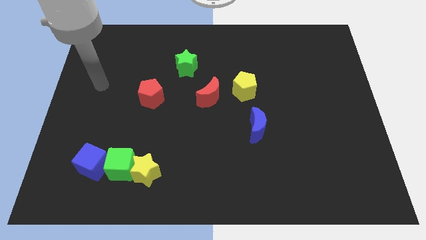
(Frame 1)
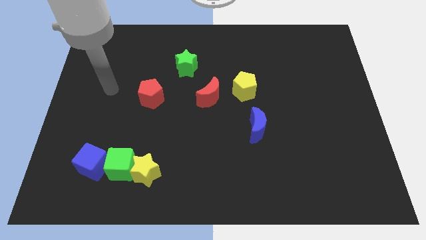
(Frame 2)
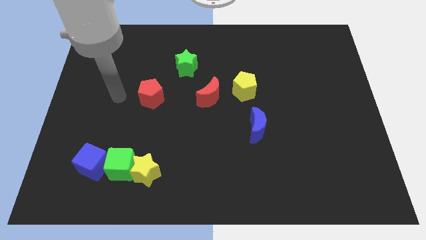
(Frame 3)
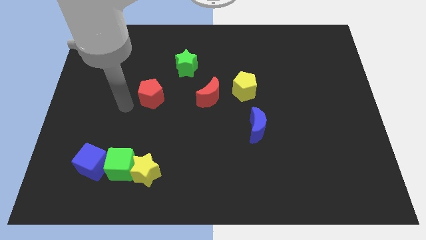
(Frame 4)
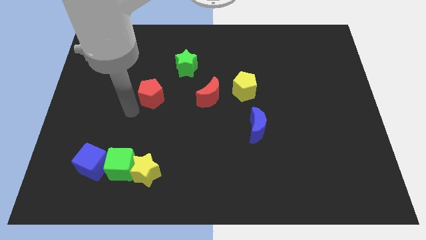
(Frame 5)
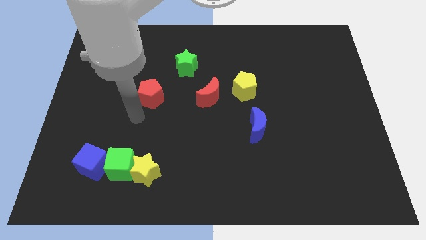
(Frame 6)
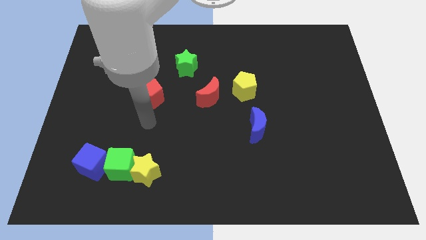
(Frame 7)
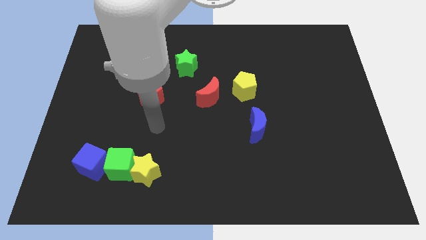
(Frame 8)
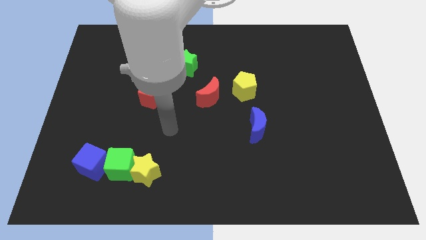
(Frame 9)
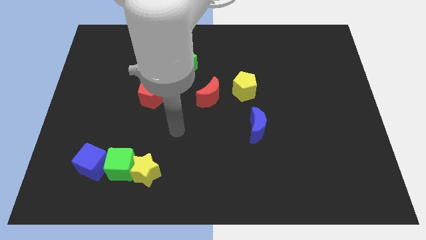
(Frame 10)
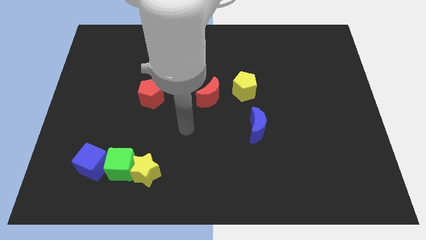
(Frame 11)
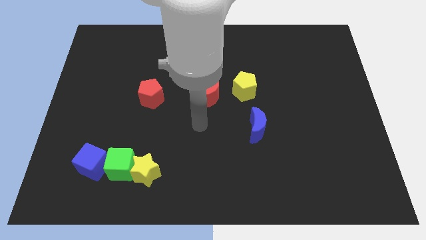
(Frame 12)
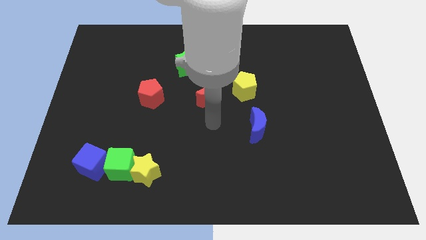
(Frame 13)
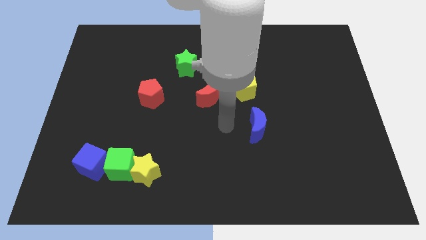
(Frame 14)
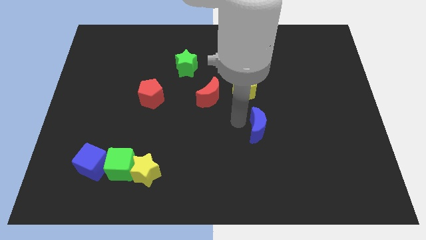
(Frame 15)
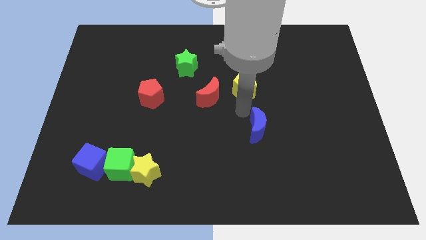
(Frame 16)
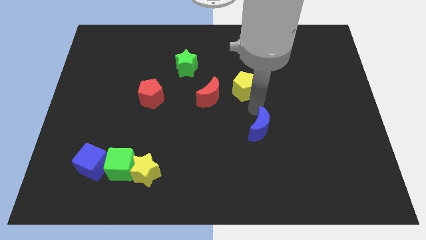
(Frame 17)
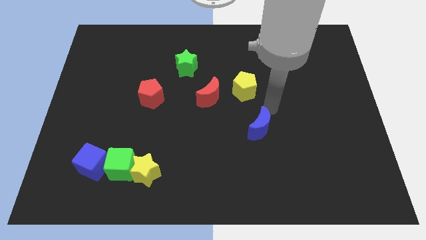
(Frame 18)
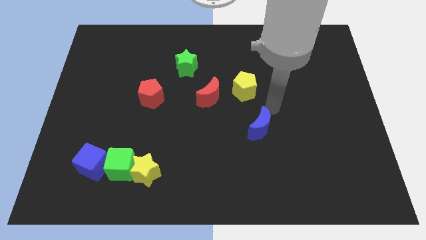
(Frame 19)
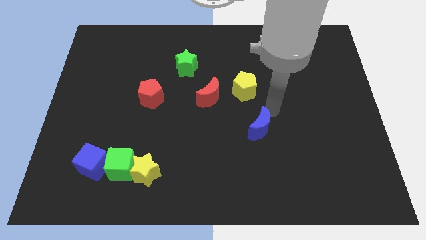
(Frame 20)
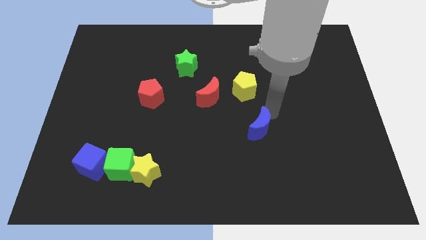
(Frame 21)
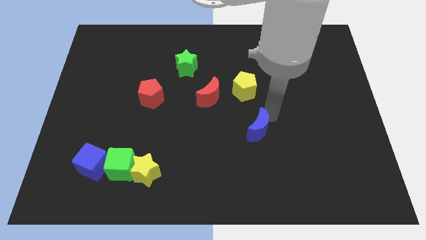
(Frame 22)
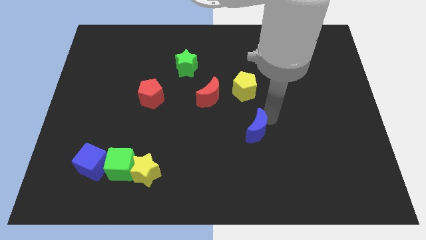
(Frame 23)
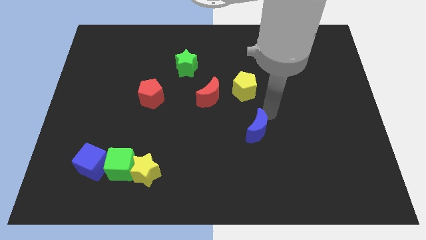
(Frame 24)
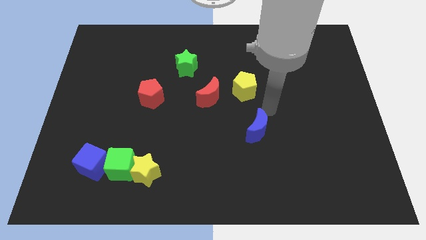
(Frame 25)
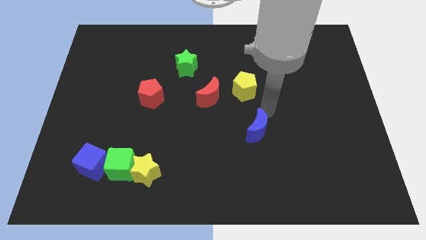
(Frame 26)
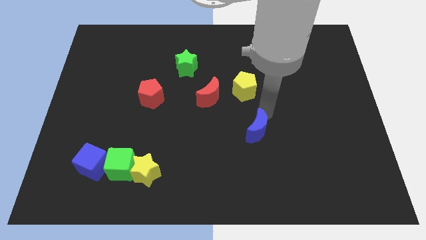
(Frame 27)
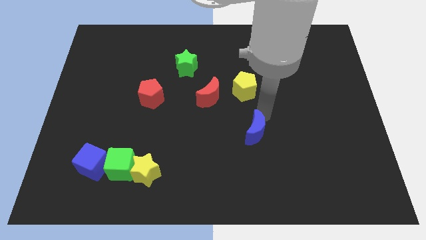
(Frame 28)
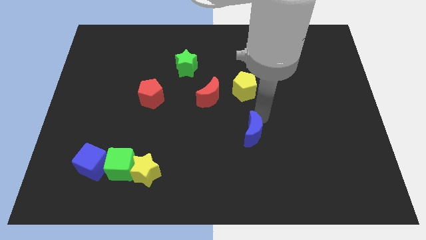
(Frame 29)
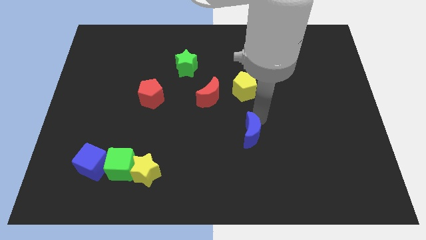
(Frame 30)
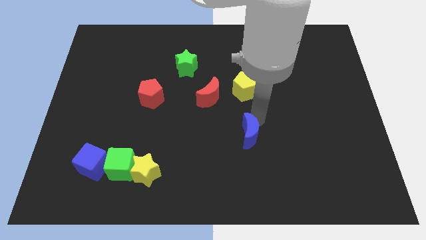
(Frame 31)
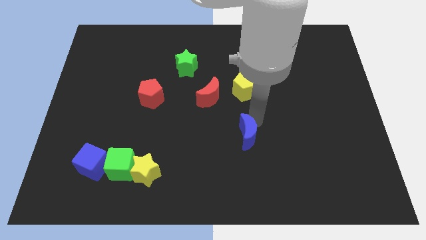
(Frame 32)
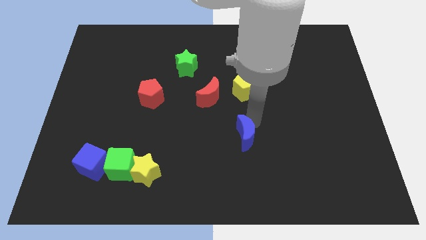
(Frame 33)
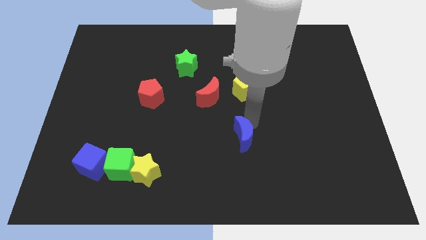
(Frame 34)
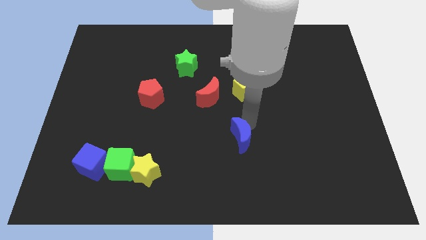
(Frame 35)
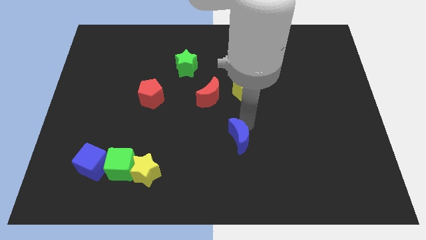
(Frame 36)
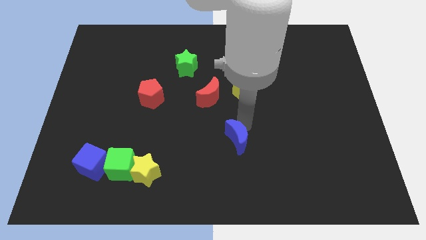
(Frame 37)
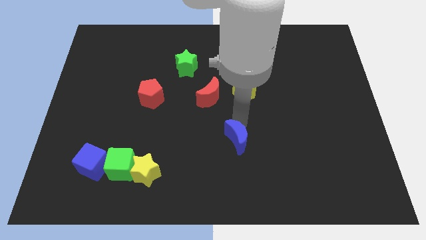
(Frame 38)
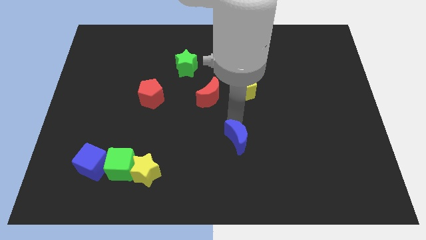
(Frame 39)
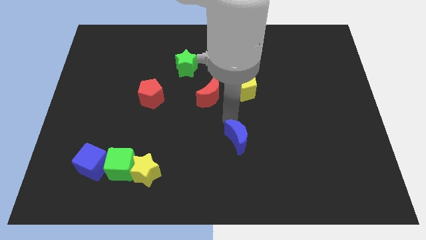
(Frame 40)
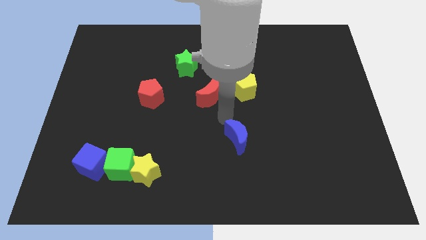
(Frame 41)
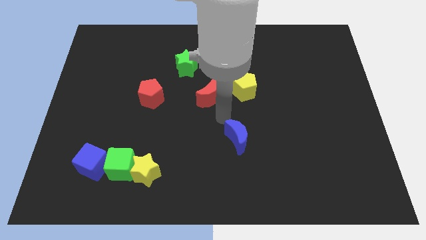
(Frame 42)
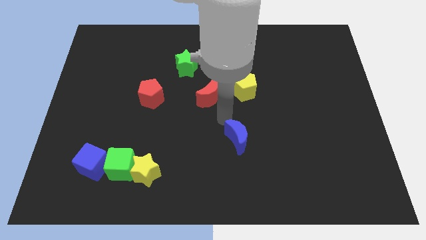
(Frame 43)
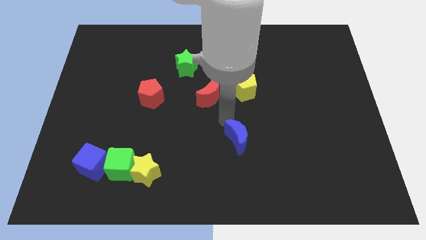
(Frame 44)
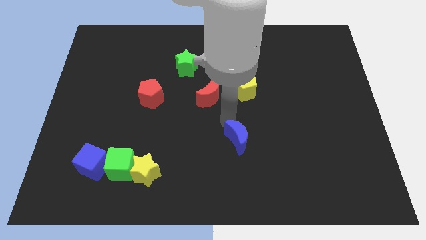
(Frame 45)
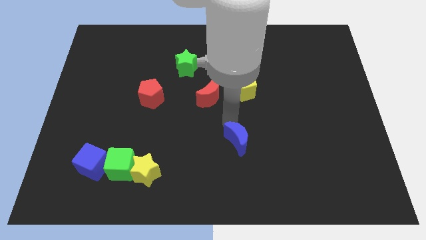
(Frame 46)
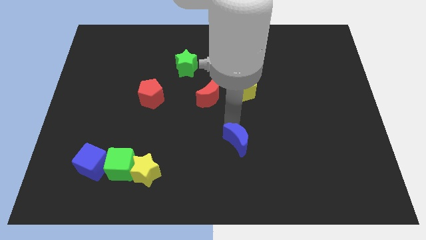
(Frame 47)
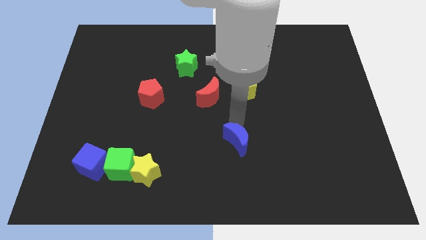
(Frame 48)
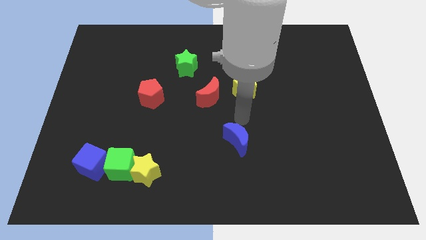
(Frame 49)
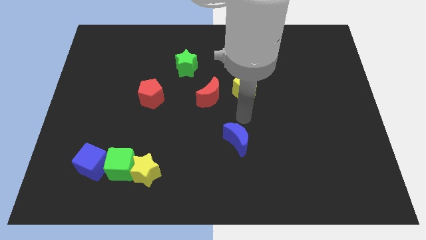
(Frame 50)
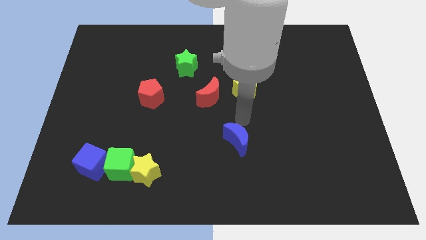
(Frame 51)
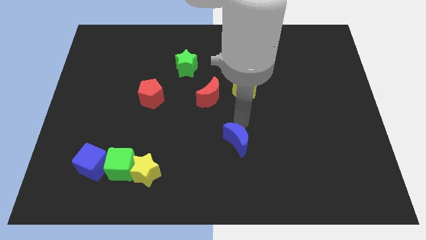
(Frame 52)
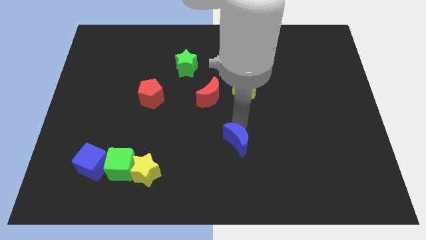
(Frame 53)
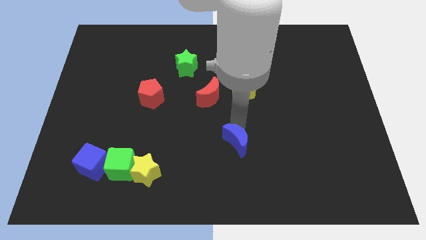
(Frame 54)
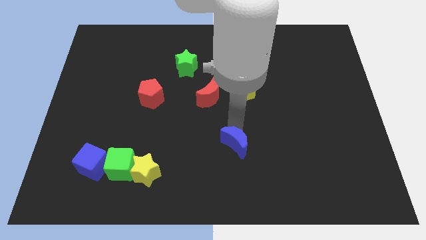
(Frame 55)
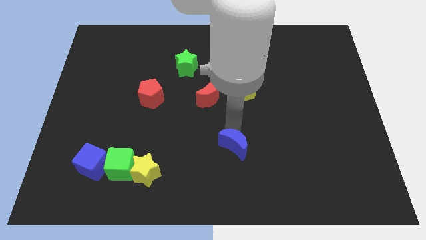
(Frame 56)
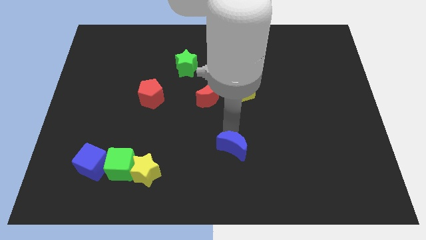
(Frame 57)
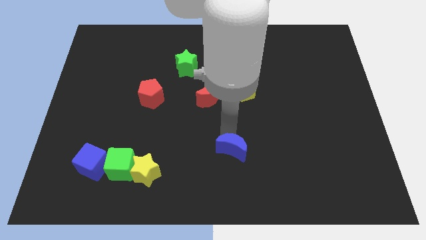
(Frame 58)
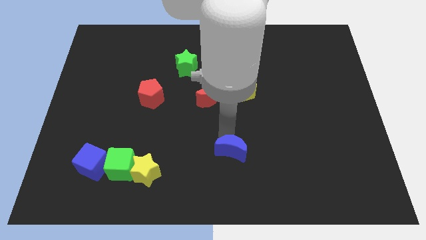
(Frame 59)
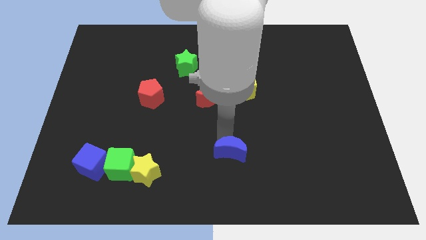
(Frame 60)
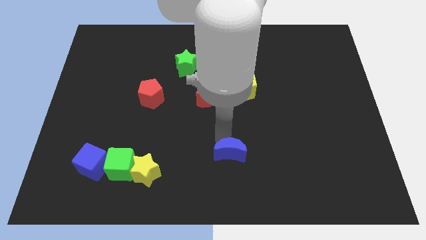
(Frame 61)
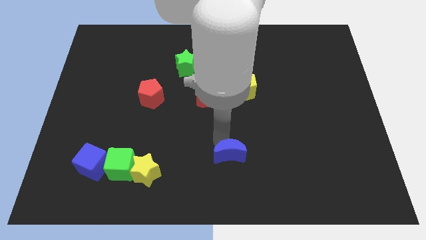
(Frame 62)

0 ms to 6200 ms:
slide the blue moon to the bottom

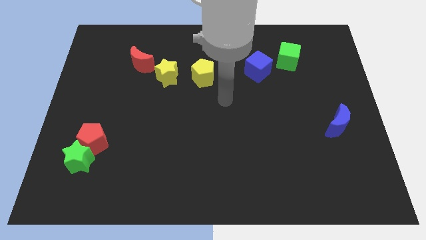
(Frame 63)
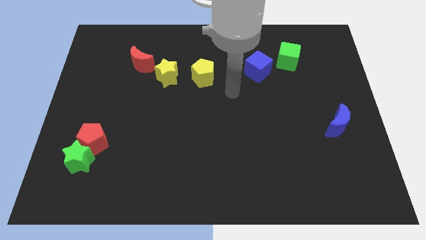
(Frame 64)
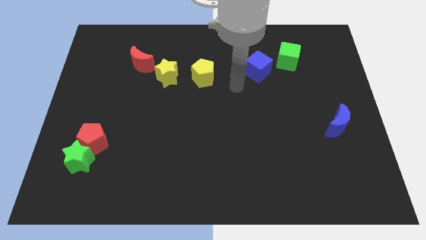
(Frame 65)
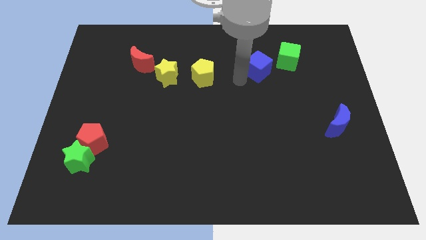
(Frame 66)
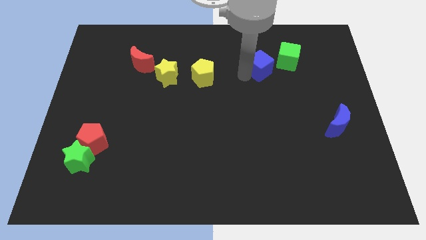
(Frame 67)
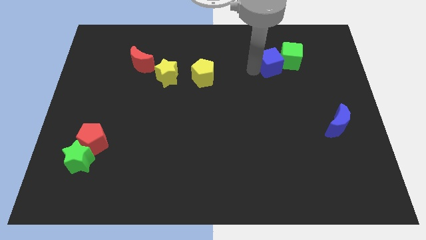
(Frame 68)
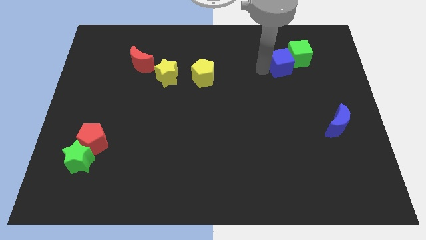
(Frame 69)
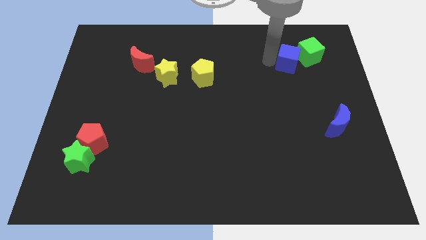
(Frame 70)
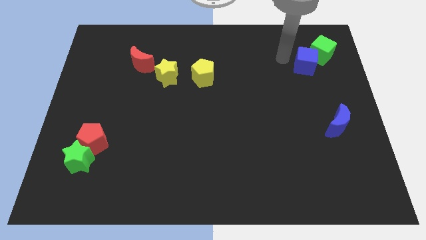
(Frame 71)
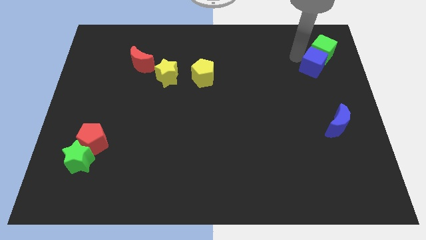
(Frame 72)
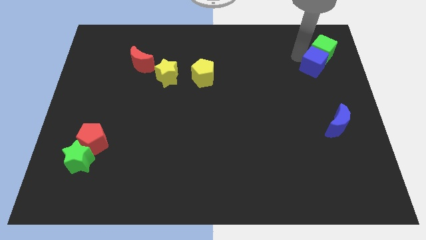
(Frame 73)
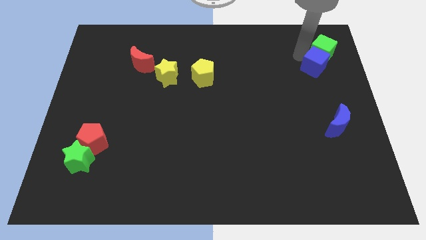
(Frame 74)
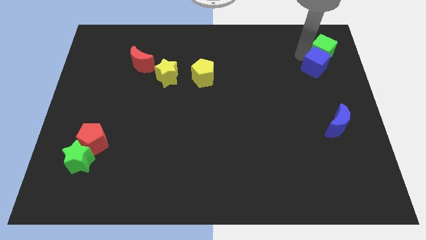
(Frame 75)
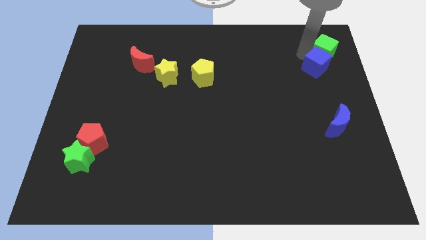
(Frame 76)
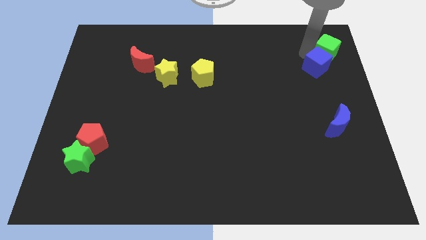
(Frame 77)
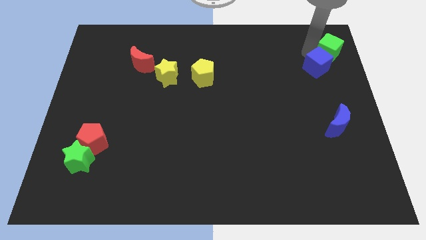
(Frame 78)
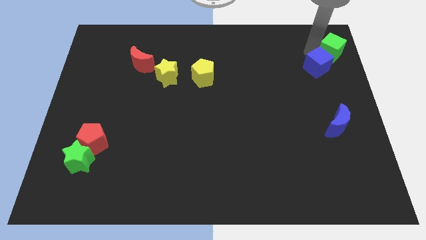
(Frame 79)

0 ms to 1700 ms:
move the green cube to the top right
